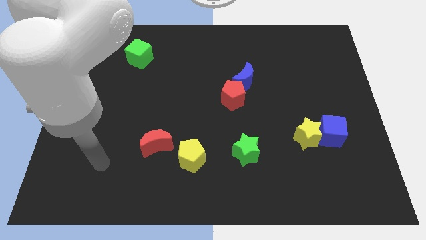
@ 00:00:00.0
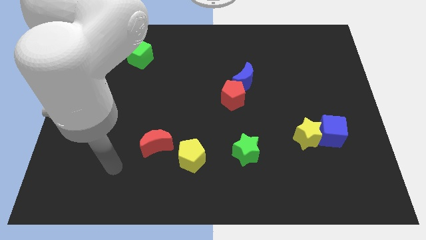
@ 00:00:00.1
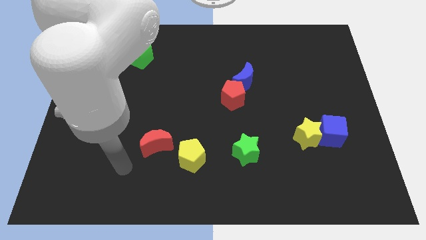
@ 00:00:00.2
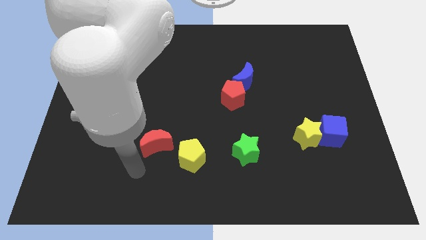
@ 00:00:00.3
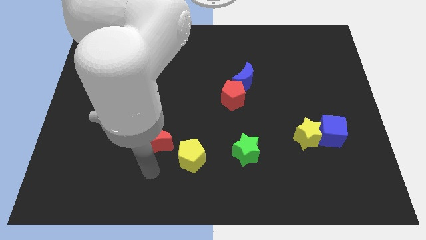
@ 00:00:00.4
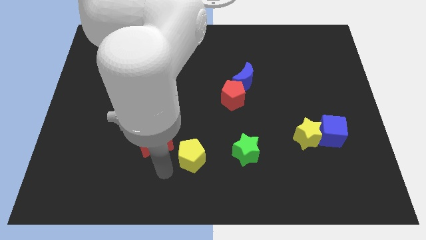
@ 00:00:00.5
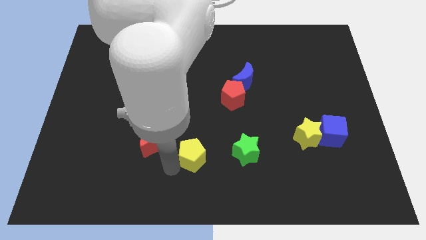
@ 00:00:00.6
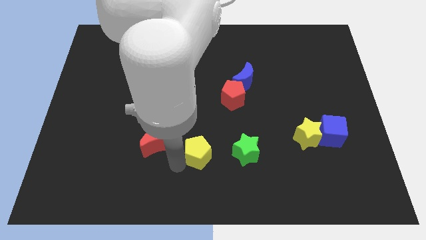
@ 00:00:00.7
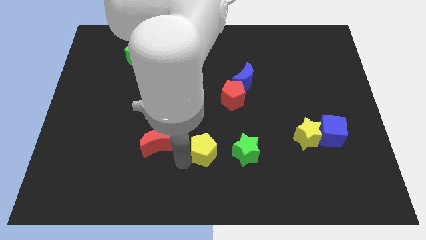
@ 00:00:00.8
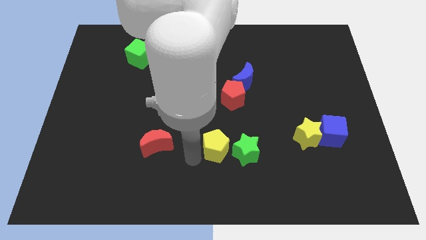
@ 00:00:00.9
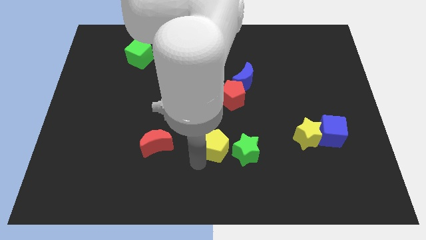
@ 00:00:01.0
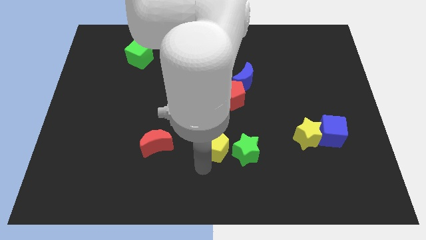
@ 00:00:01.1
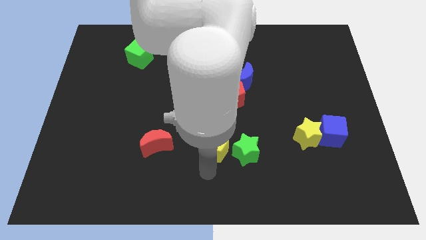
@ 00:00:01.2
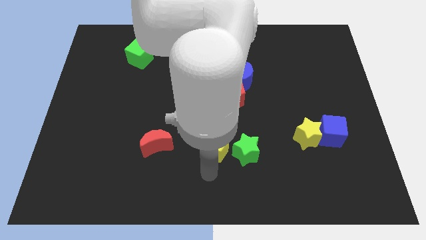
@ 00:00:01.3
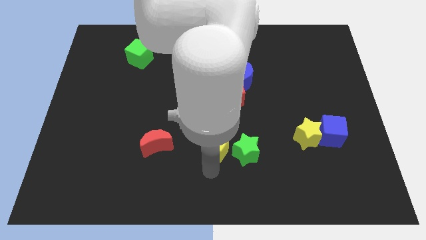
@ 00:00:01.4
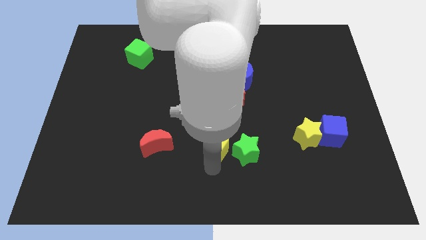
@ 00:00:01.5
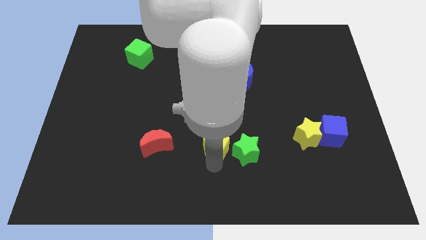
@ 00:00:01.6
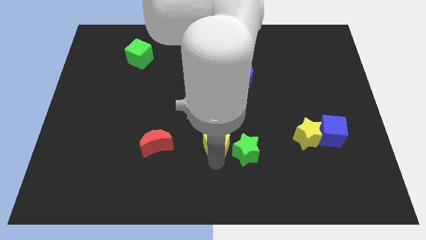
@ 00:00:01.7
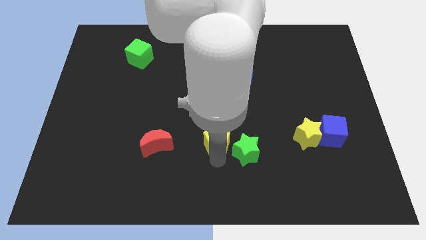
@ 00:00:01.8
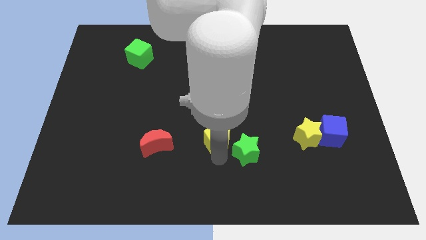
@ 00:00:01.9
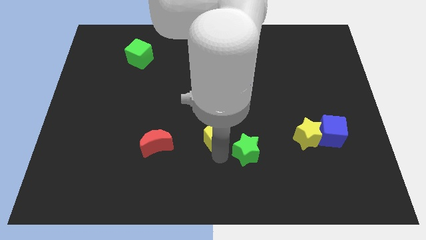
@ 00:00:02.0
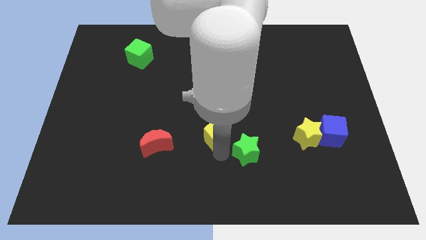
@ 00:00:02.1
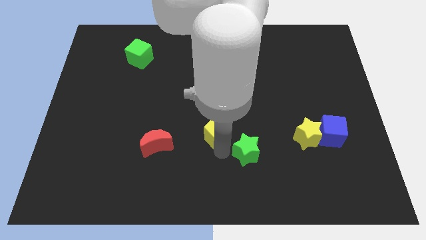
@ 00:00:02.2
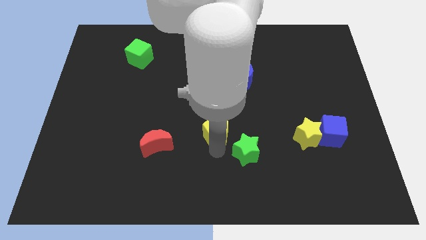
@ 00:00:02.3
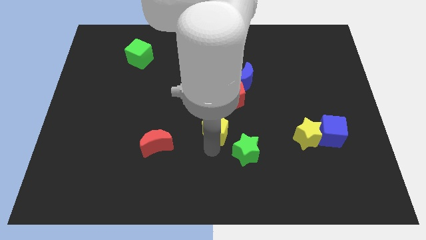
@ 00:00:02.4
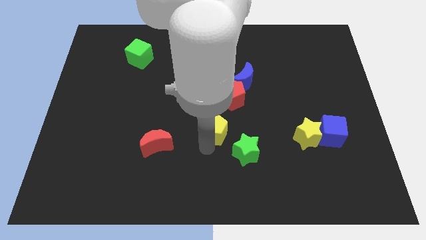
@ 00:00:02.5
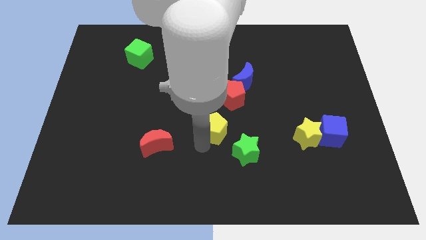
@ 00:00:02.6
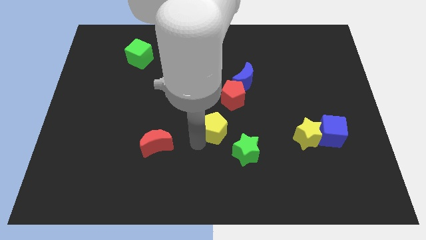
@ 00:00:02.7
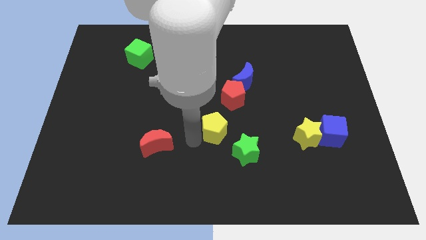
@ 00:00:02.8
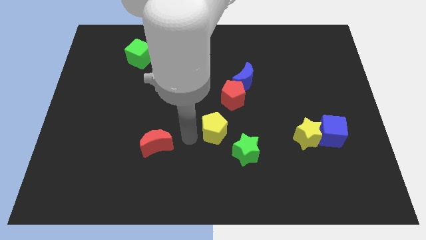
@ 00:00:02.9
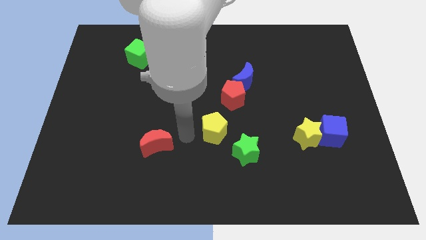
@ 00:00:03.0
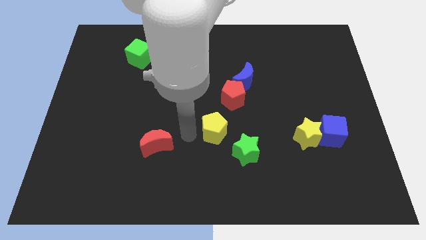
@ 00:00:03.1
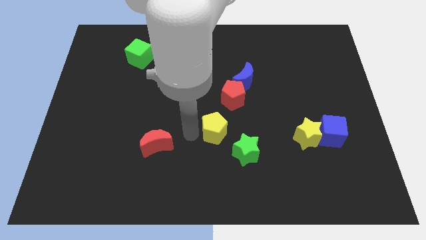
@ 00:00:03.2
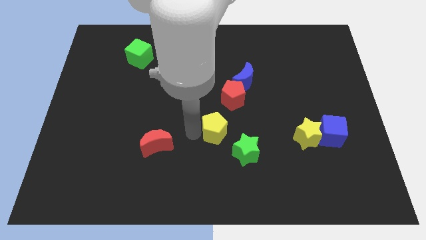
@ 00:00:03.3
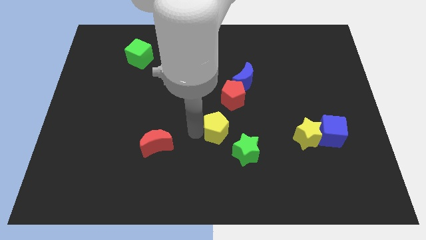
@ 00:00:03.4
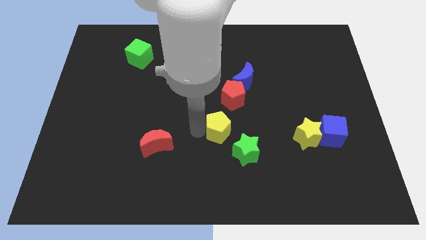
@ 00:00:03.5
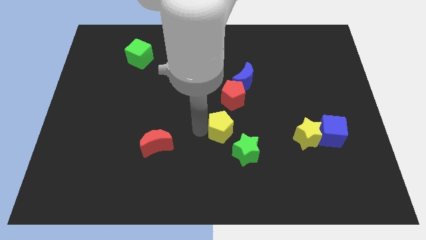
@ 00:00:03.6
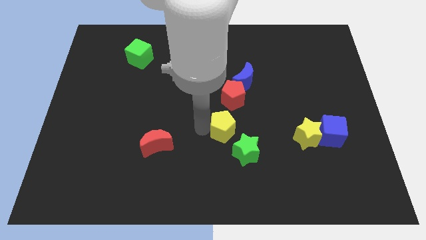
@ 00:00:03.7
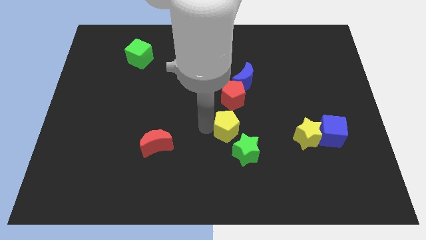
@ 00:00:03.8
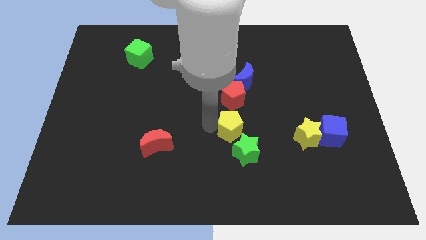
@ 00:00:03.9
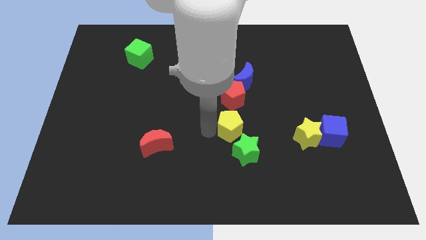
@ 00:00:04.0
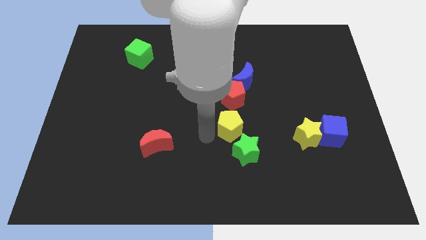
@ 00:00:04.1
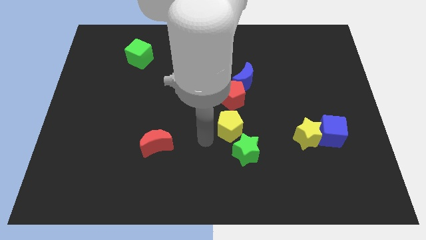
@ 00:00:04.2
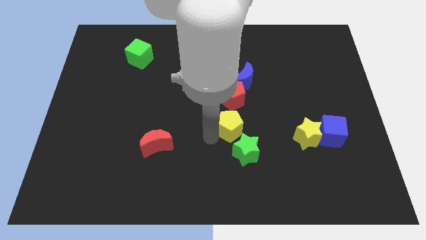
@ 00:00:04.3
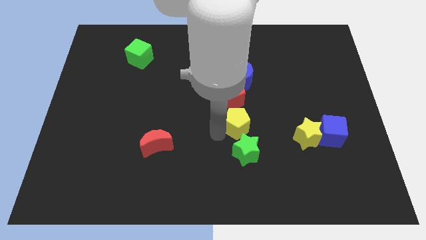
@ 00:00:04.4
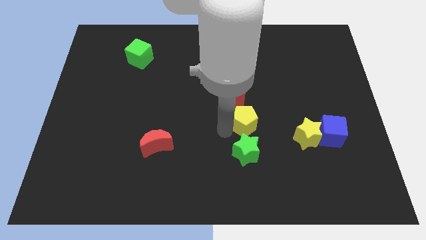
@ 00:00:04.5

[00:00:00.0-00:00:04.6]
put the yellow pentagon to the bottom right of the red pentagon

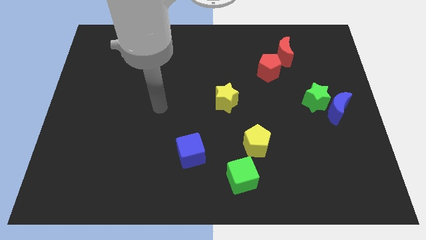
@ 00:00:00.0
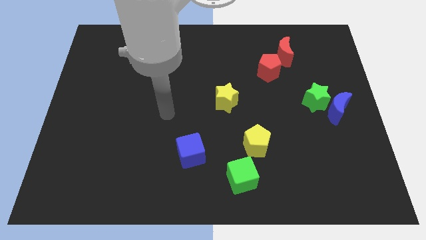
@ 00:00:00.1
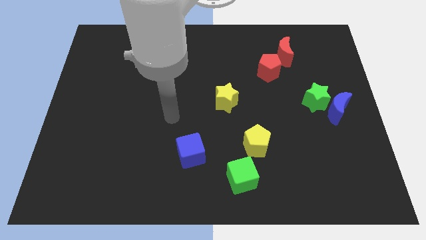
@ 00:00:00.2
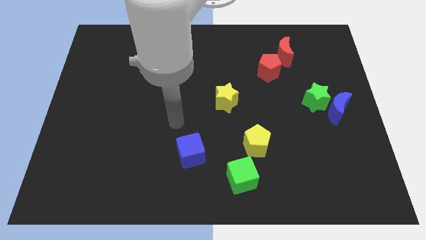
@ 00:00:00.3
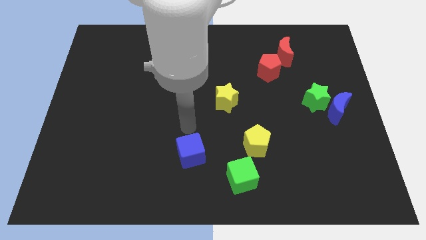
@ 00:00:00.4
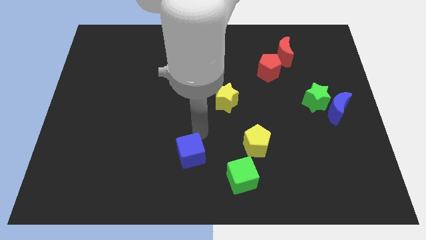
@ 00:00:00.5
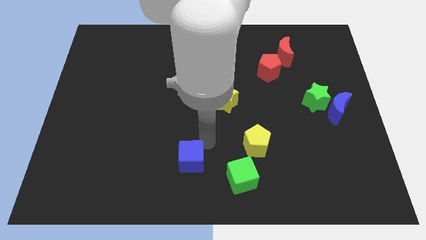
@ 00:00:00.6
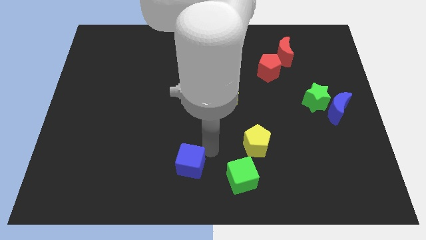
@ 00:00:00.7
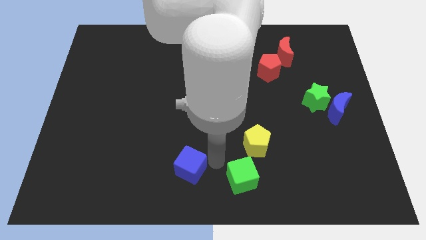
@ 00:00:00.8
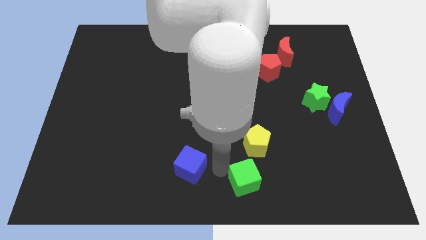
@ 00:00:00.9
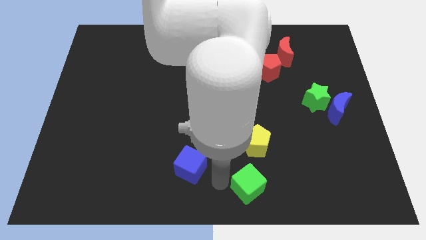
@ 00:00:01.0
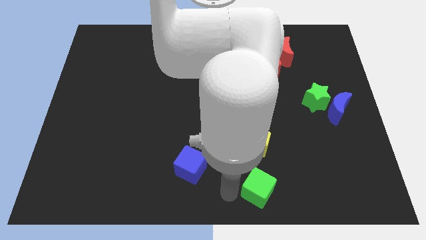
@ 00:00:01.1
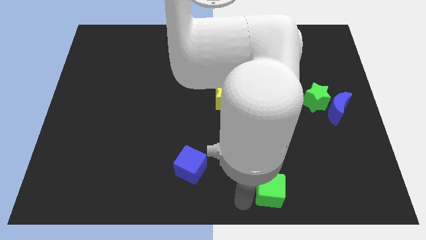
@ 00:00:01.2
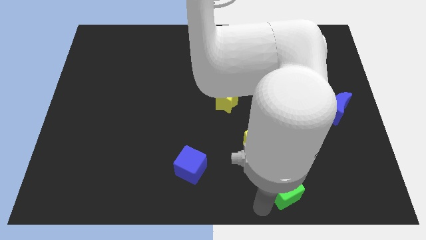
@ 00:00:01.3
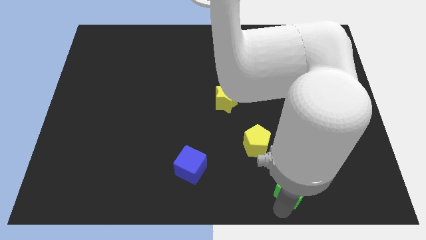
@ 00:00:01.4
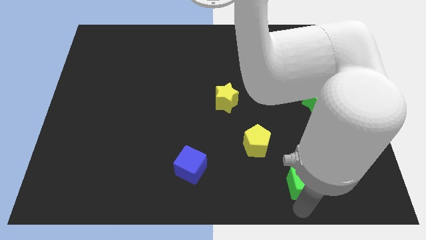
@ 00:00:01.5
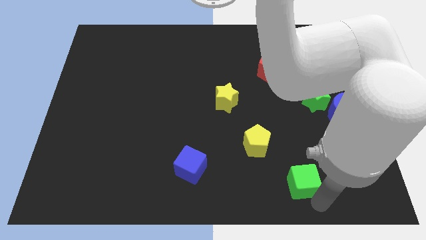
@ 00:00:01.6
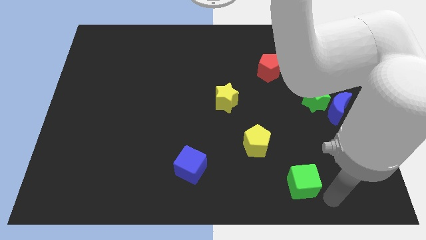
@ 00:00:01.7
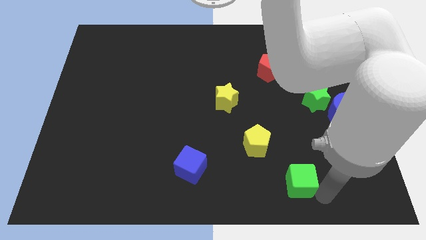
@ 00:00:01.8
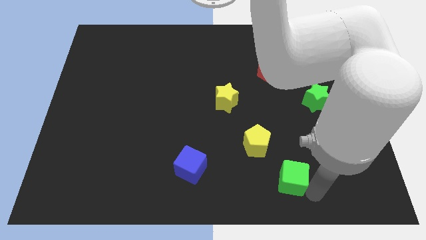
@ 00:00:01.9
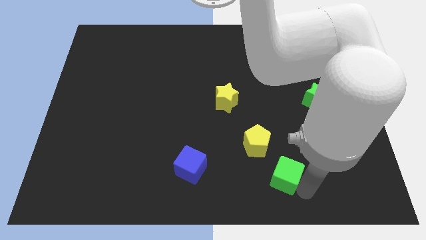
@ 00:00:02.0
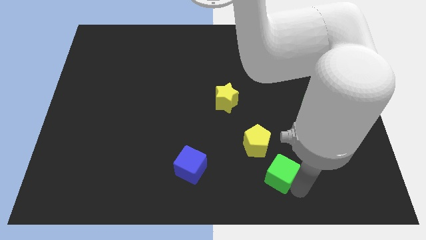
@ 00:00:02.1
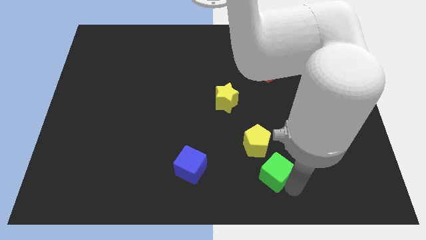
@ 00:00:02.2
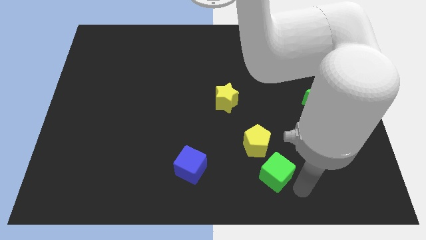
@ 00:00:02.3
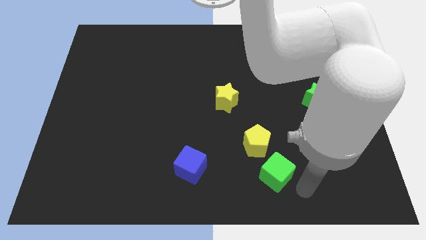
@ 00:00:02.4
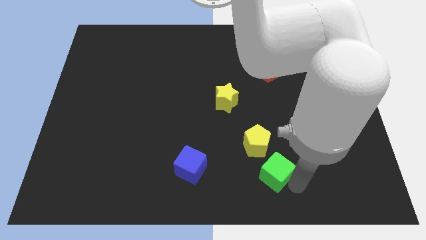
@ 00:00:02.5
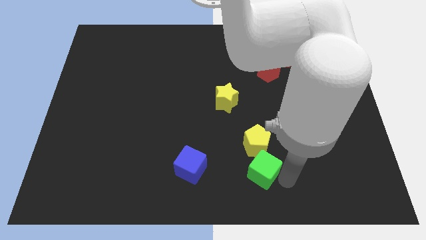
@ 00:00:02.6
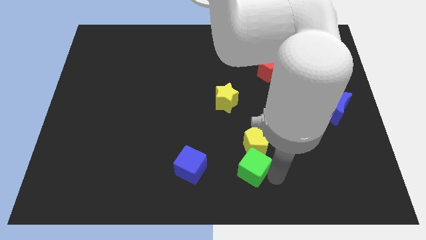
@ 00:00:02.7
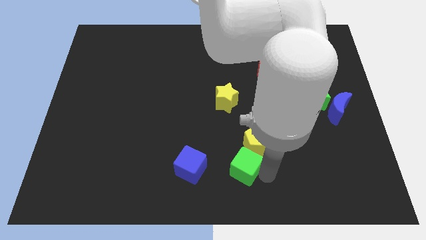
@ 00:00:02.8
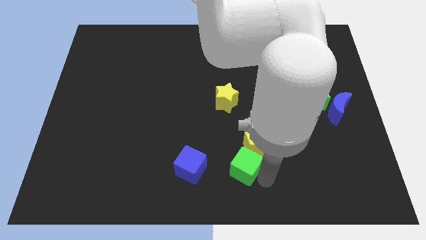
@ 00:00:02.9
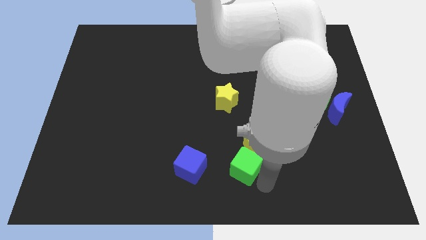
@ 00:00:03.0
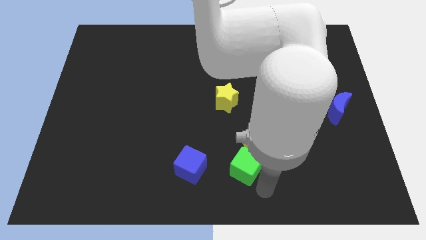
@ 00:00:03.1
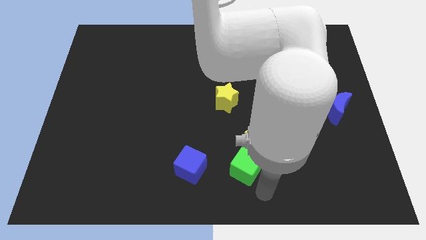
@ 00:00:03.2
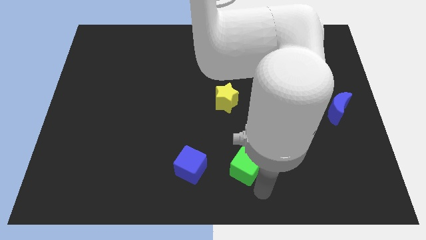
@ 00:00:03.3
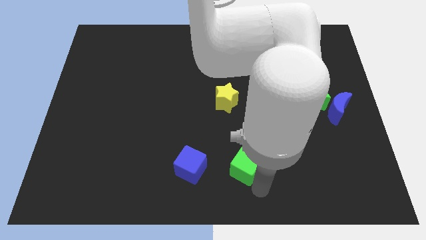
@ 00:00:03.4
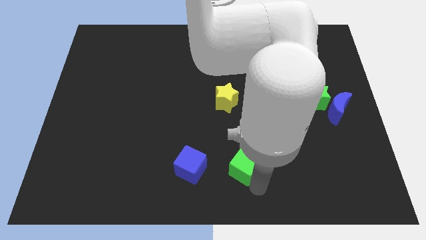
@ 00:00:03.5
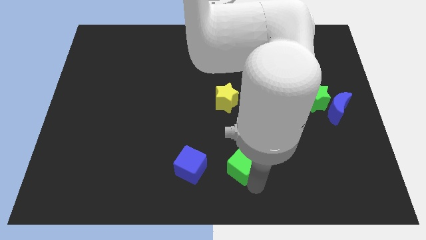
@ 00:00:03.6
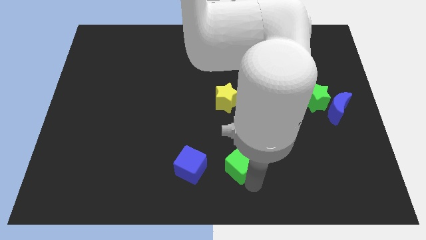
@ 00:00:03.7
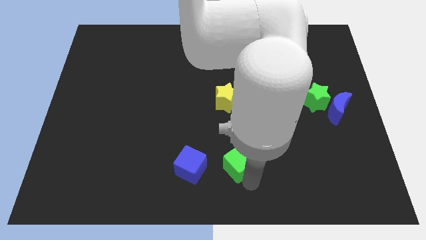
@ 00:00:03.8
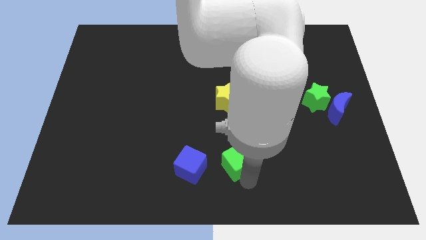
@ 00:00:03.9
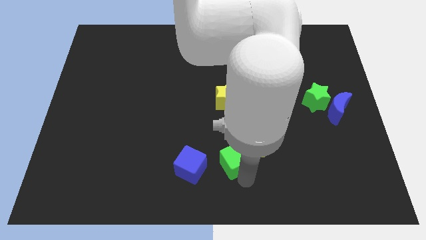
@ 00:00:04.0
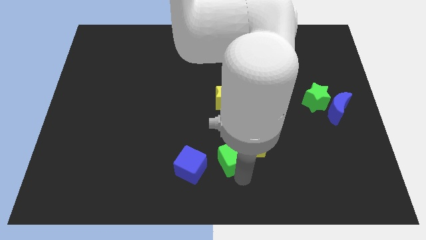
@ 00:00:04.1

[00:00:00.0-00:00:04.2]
slide the green cube to the bottom side of the yellow star
